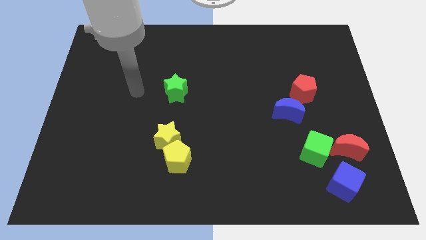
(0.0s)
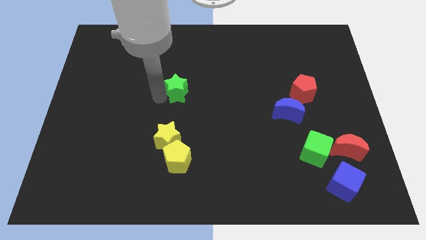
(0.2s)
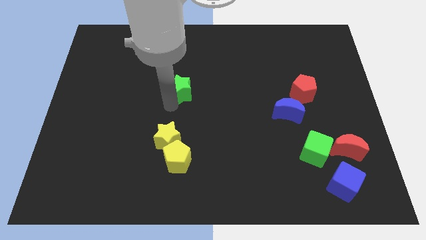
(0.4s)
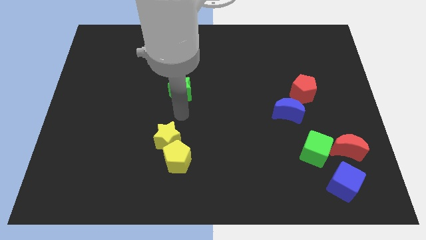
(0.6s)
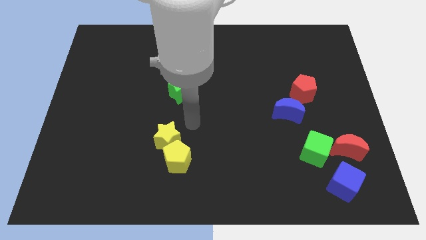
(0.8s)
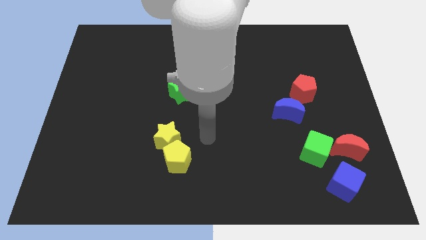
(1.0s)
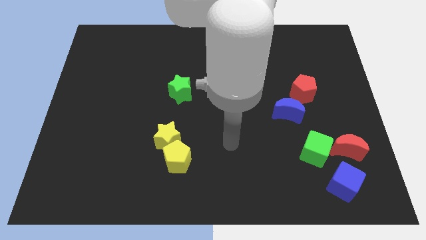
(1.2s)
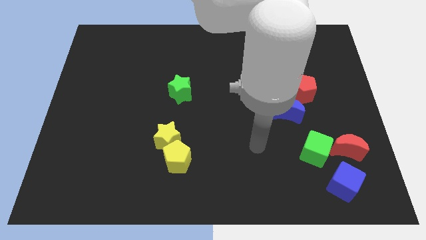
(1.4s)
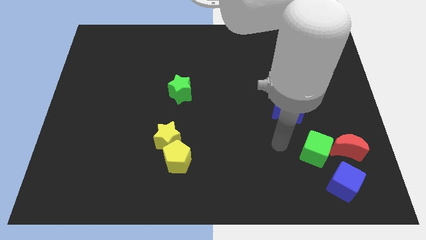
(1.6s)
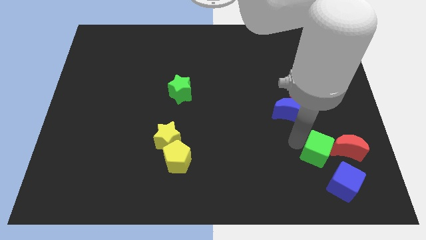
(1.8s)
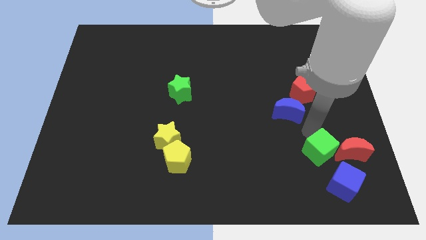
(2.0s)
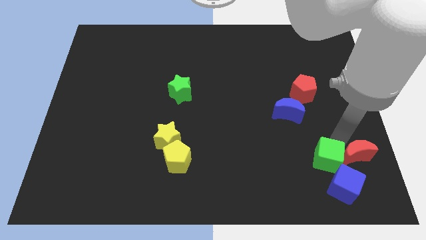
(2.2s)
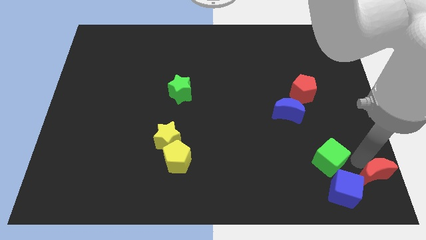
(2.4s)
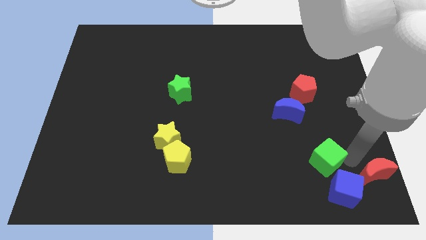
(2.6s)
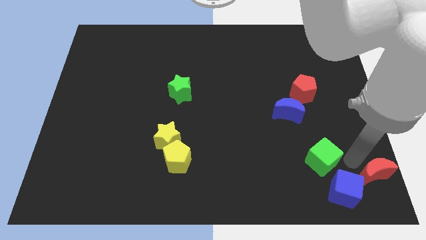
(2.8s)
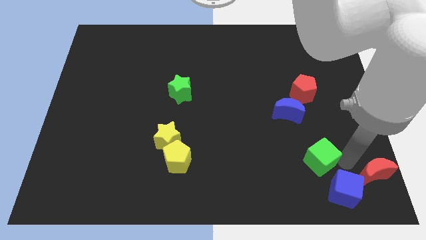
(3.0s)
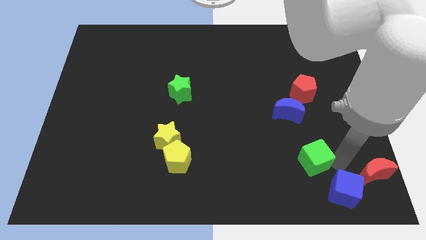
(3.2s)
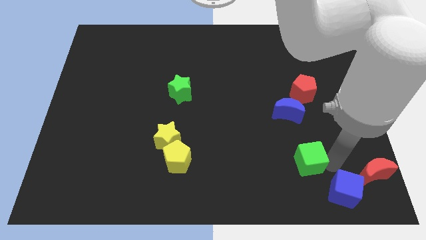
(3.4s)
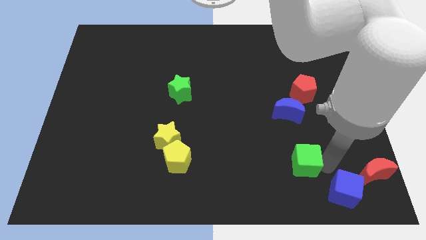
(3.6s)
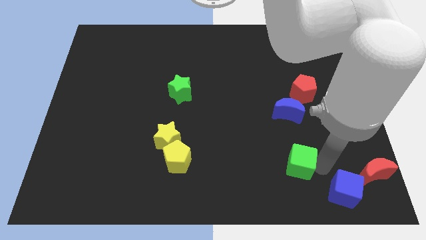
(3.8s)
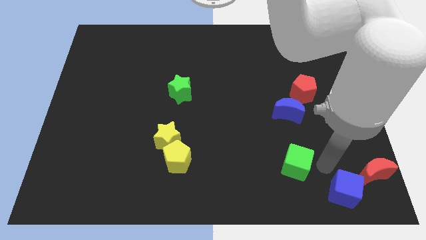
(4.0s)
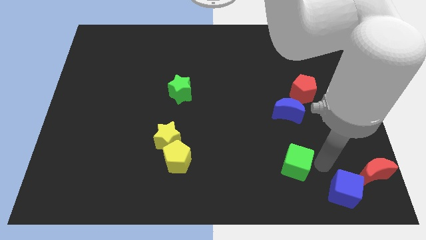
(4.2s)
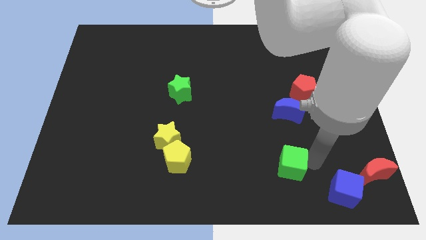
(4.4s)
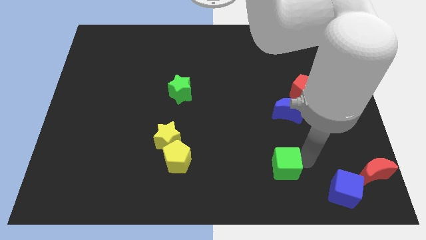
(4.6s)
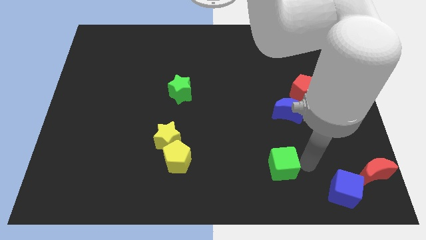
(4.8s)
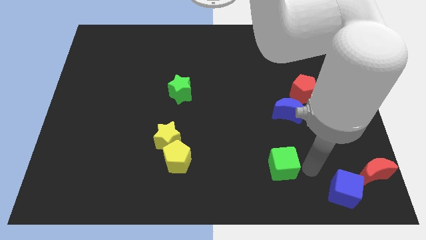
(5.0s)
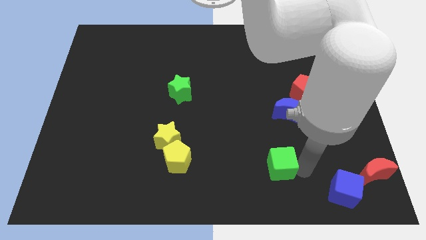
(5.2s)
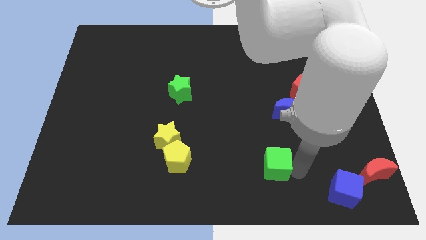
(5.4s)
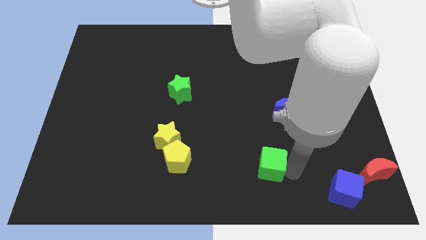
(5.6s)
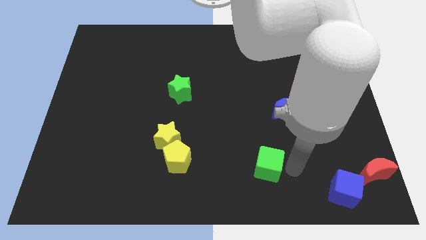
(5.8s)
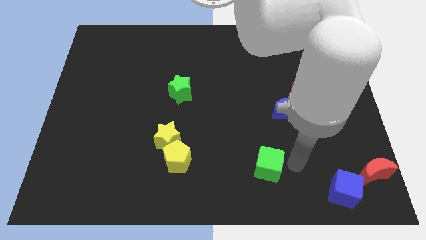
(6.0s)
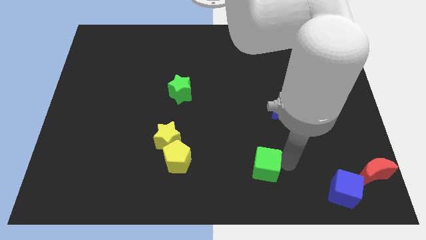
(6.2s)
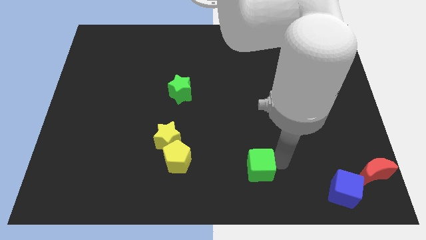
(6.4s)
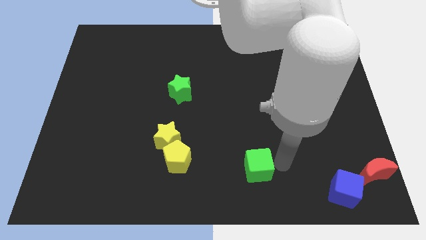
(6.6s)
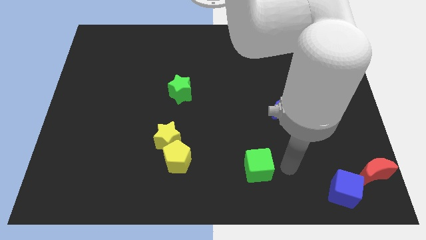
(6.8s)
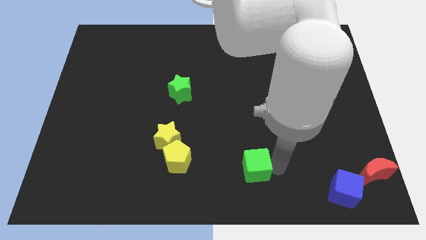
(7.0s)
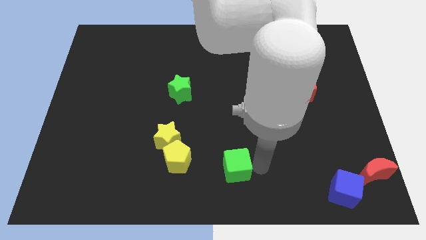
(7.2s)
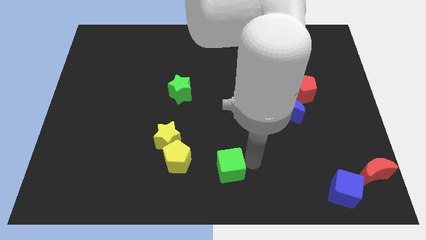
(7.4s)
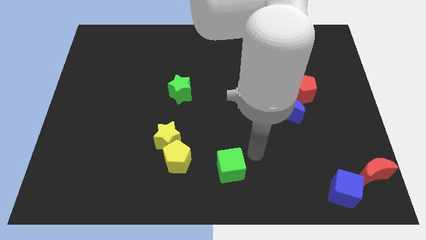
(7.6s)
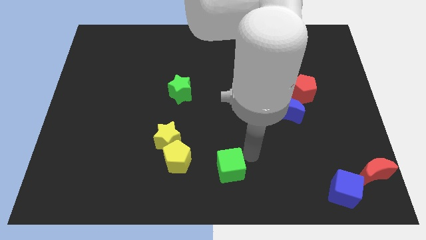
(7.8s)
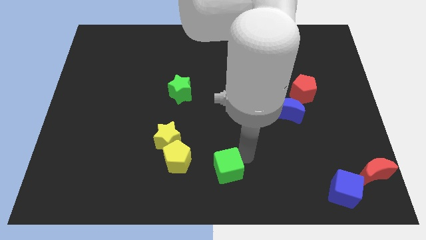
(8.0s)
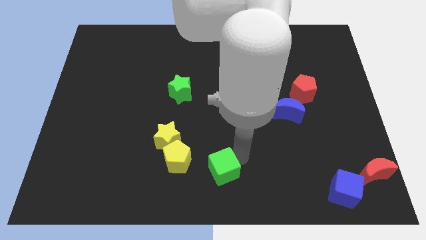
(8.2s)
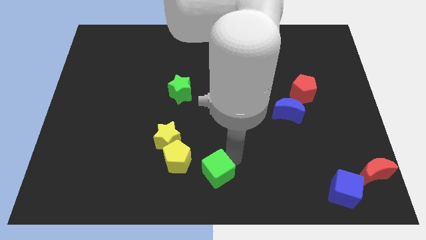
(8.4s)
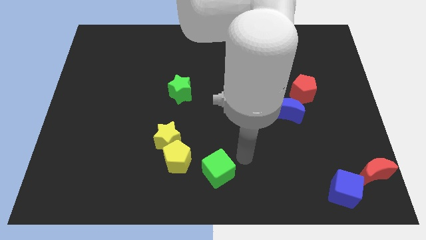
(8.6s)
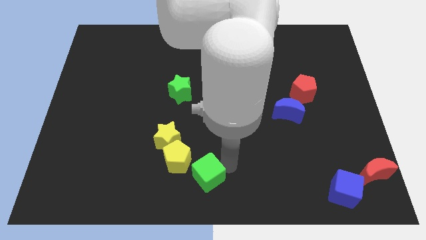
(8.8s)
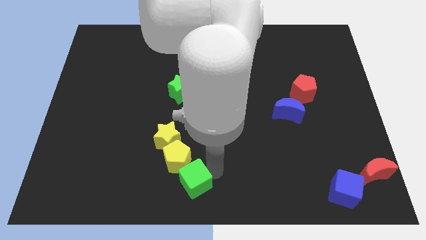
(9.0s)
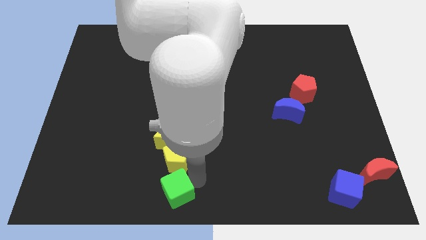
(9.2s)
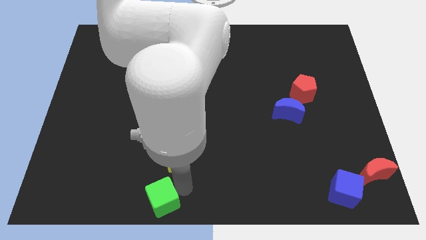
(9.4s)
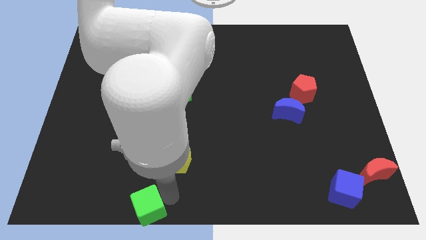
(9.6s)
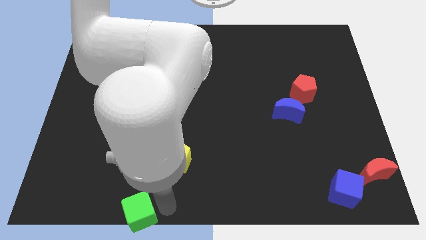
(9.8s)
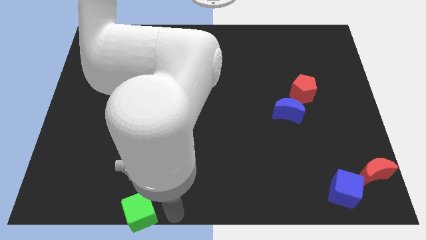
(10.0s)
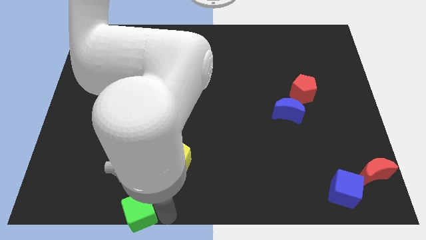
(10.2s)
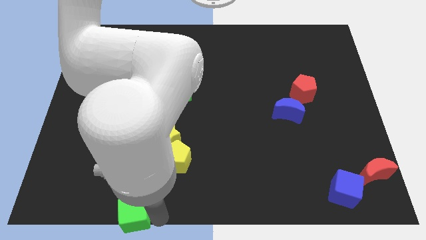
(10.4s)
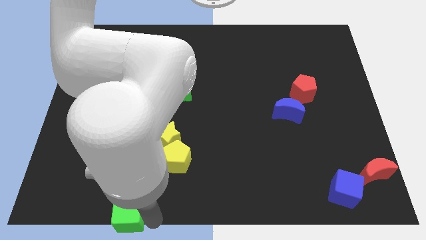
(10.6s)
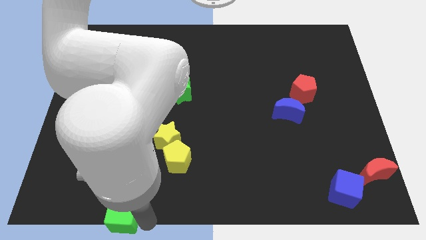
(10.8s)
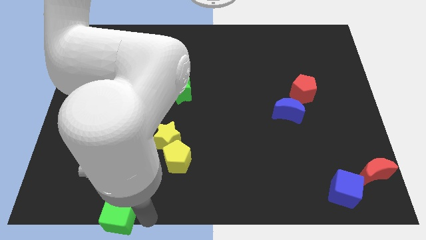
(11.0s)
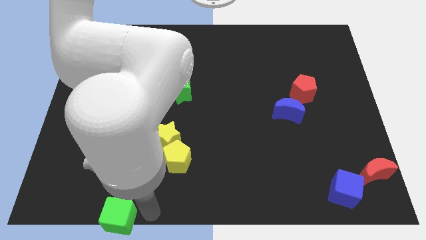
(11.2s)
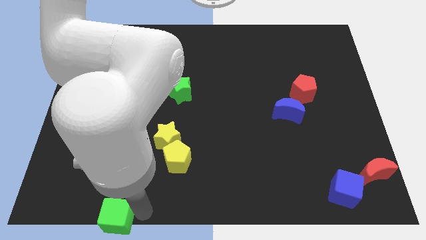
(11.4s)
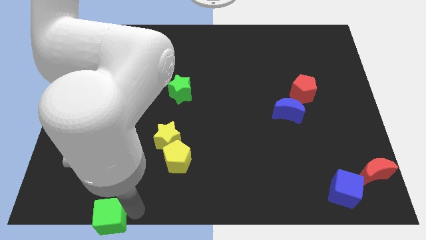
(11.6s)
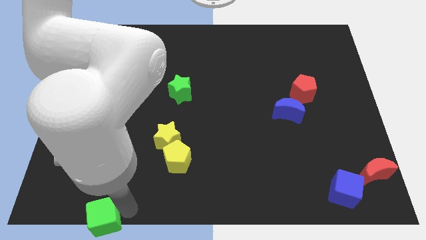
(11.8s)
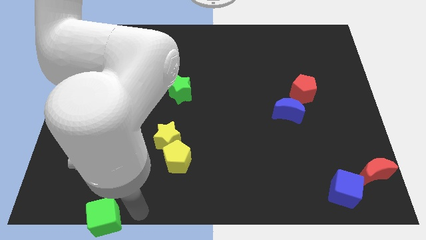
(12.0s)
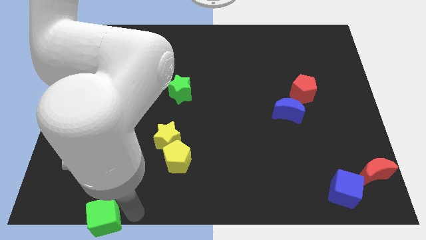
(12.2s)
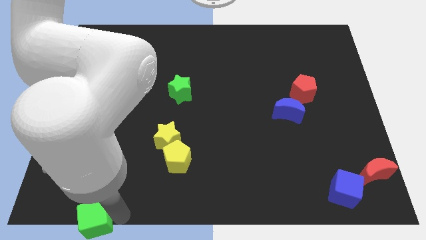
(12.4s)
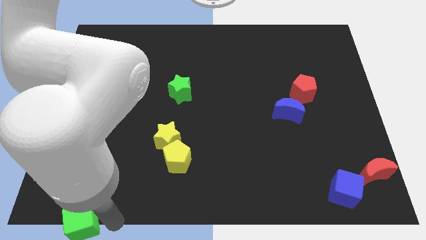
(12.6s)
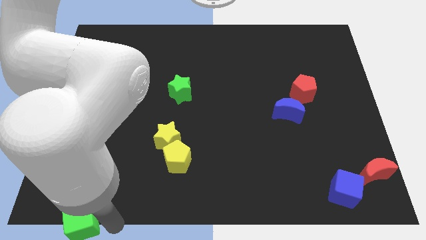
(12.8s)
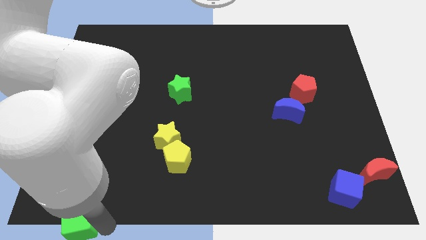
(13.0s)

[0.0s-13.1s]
push the green cube to the lower left corner
